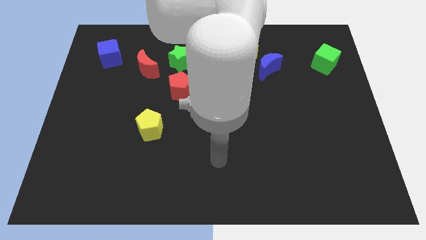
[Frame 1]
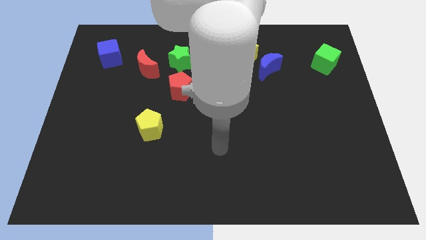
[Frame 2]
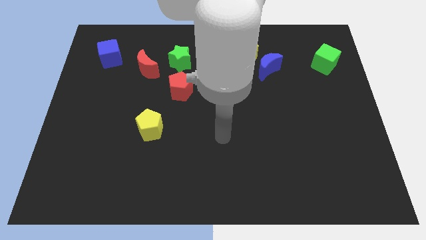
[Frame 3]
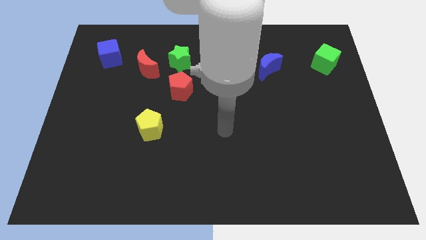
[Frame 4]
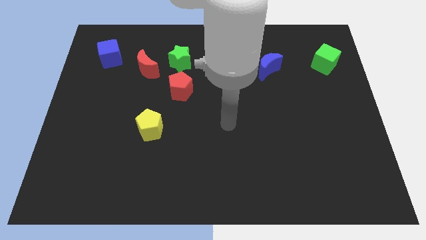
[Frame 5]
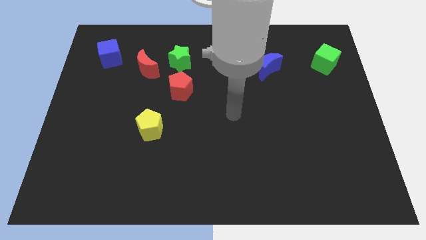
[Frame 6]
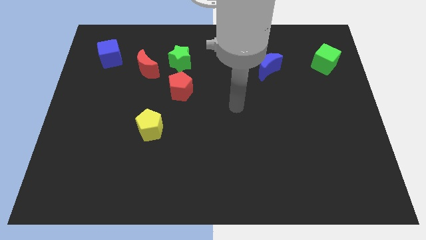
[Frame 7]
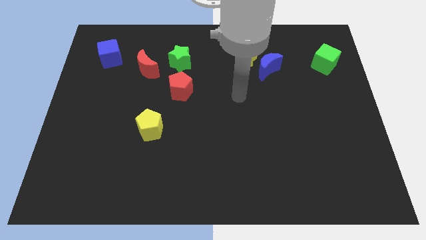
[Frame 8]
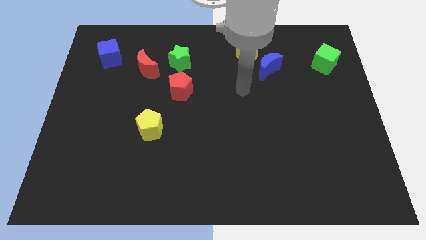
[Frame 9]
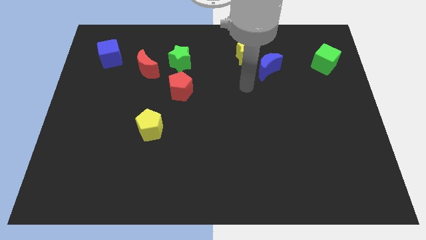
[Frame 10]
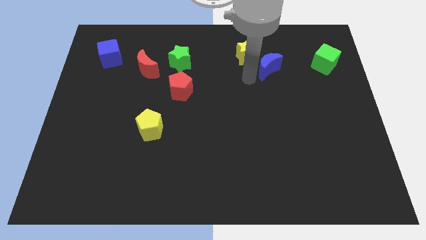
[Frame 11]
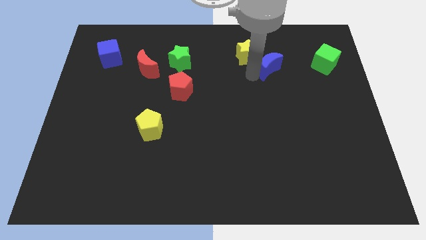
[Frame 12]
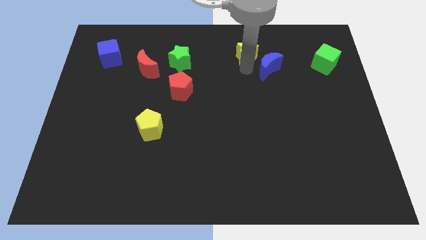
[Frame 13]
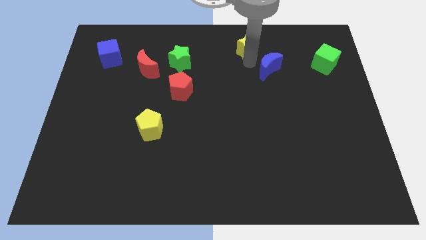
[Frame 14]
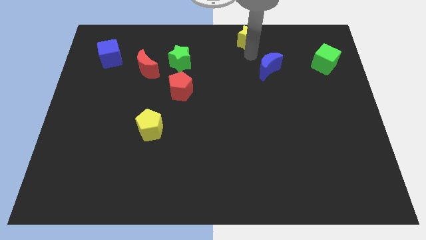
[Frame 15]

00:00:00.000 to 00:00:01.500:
move the blue moon away from the yellow star

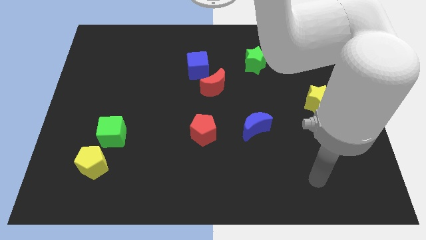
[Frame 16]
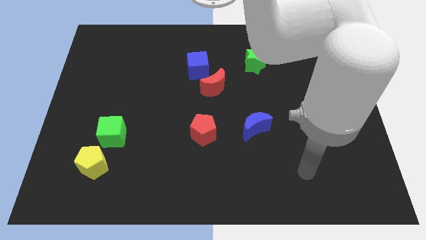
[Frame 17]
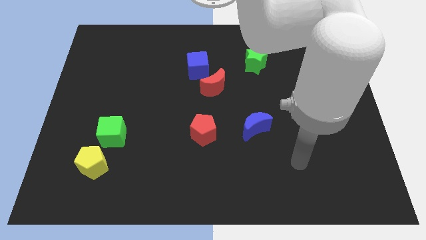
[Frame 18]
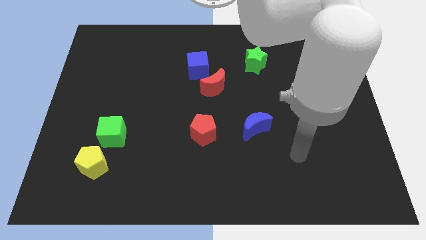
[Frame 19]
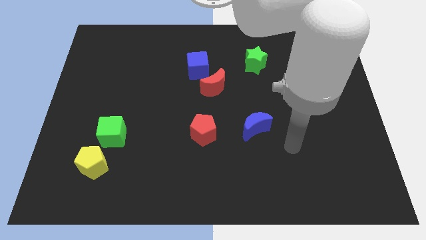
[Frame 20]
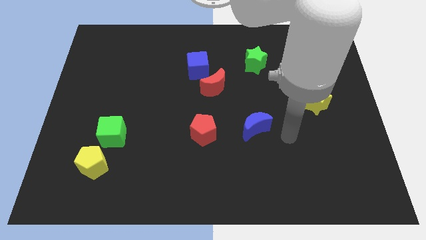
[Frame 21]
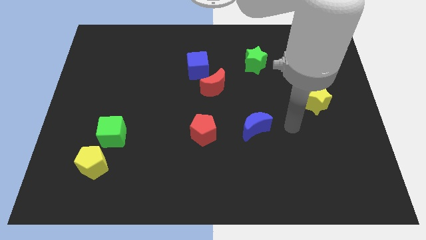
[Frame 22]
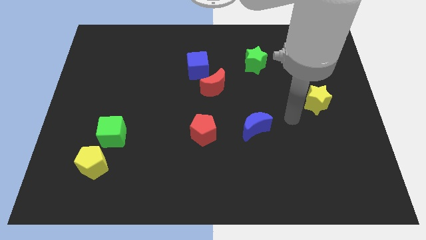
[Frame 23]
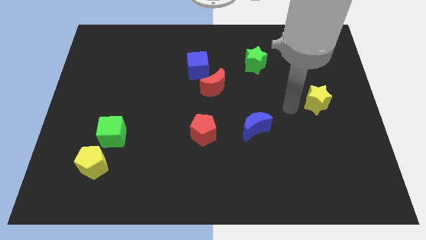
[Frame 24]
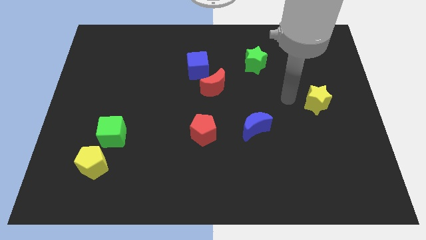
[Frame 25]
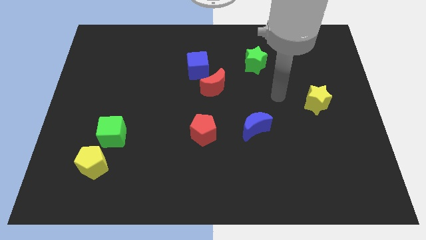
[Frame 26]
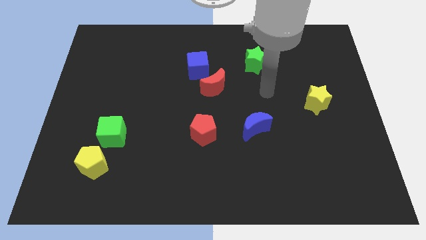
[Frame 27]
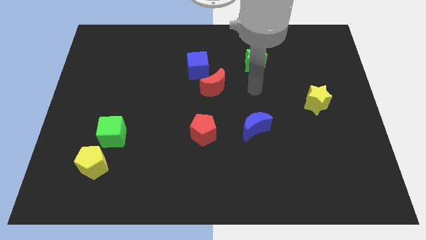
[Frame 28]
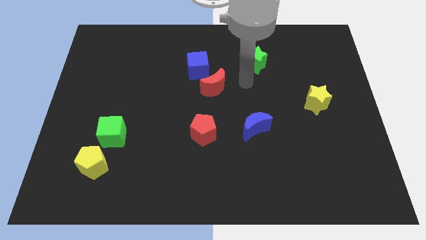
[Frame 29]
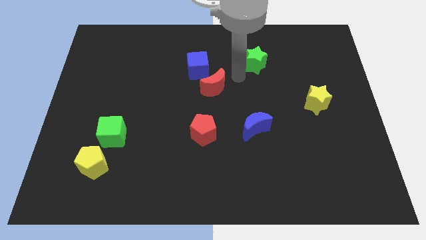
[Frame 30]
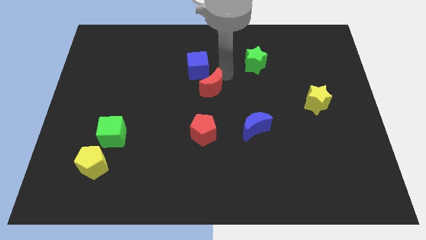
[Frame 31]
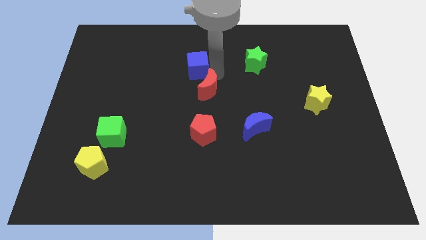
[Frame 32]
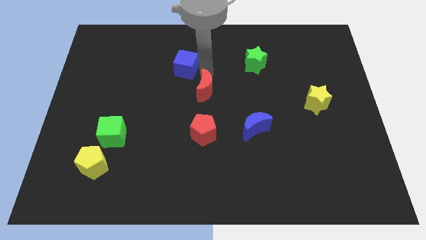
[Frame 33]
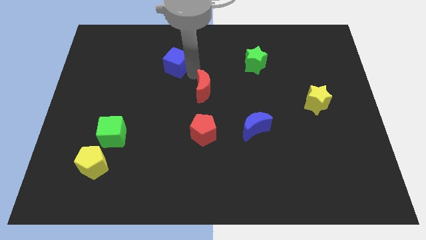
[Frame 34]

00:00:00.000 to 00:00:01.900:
pull the red moon apart from the blue cube

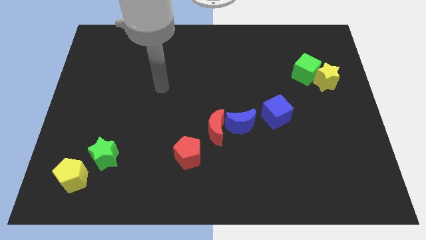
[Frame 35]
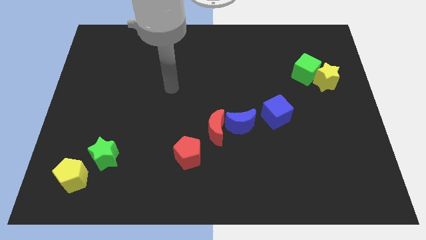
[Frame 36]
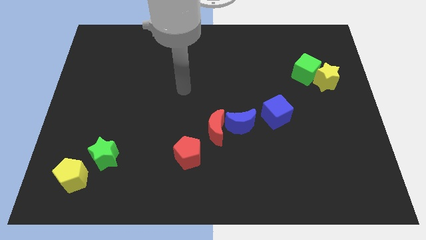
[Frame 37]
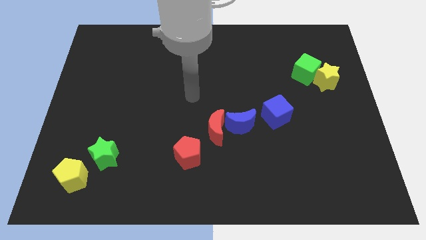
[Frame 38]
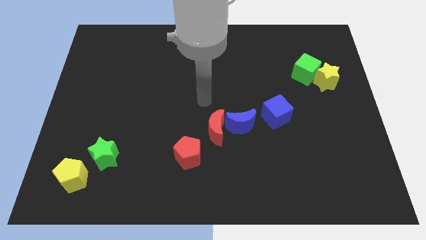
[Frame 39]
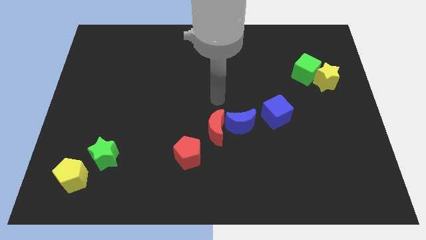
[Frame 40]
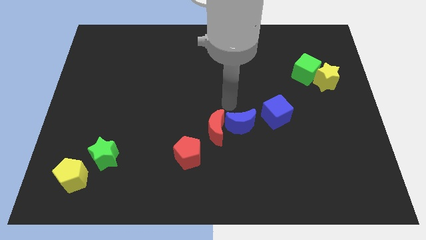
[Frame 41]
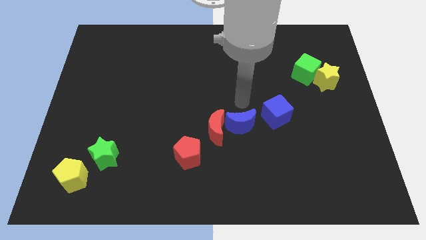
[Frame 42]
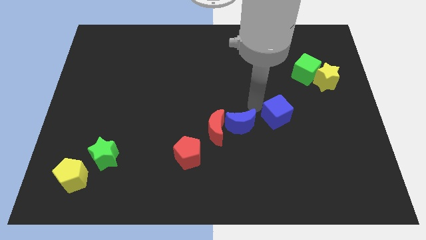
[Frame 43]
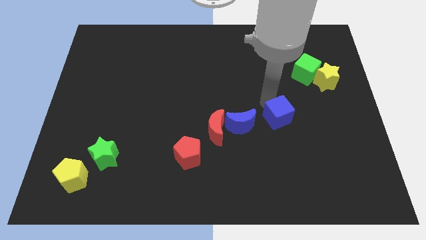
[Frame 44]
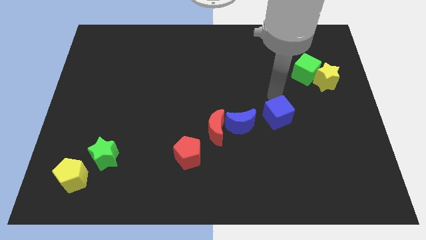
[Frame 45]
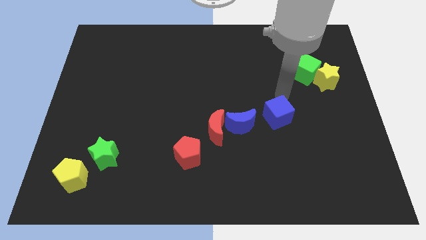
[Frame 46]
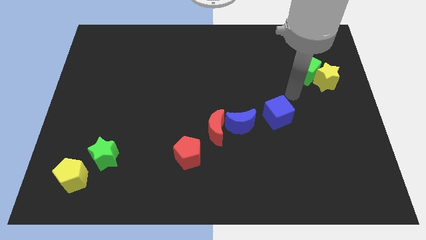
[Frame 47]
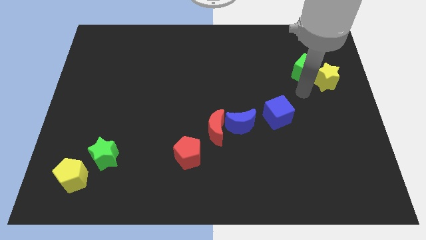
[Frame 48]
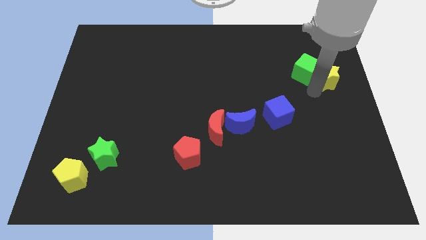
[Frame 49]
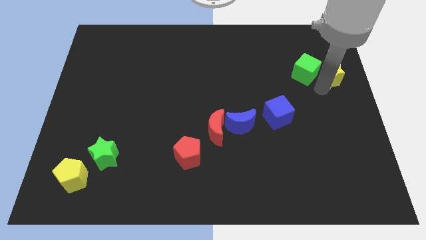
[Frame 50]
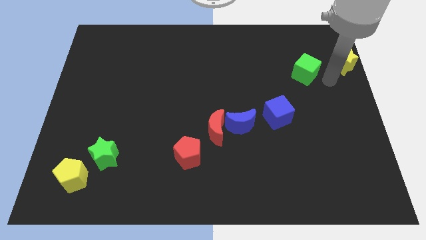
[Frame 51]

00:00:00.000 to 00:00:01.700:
pull the green cube apart from the yellow star

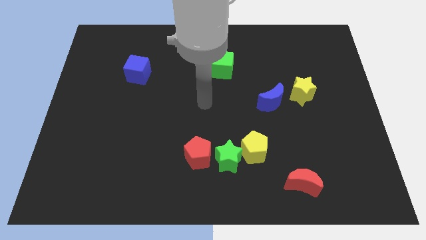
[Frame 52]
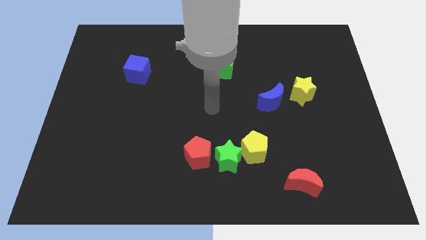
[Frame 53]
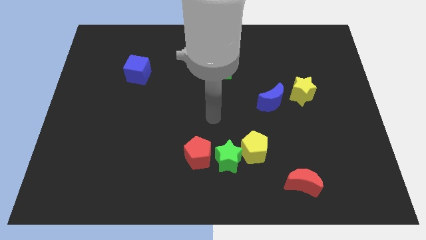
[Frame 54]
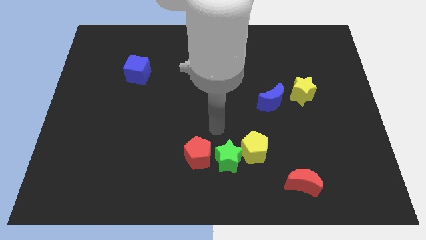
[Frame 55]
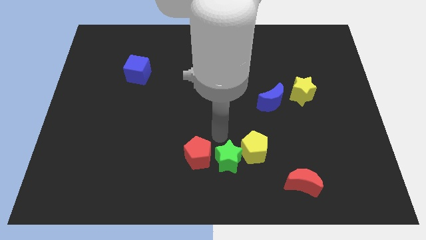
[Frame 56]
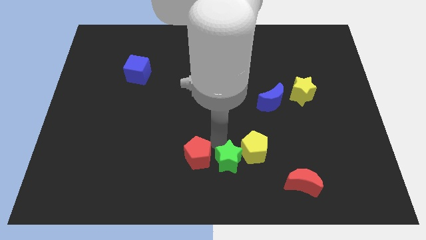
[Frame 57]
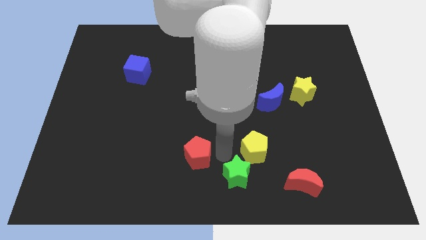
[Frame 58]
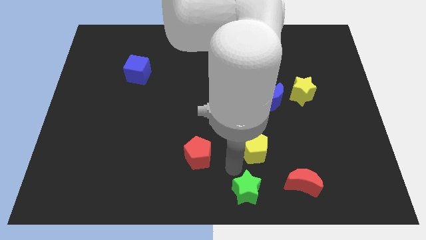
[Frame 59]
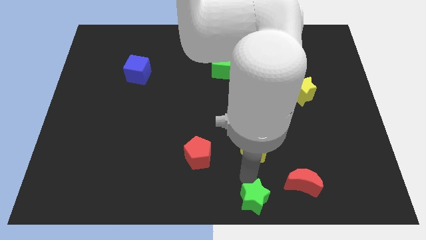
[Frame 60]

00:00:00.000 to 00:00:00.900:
pull the yellow pentagon apart from the green star

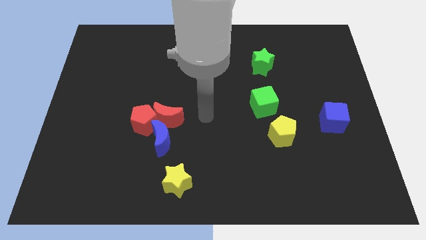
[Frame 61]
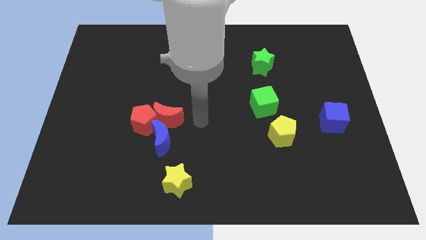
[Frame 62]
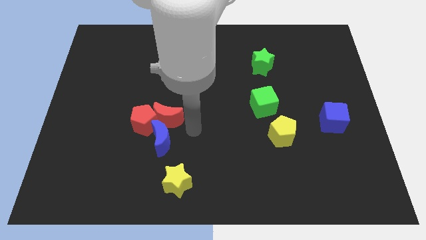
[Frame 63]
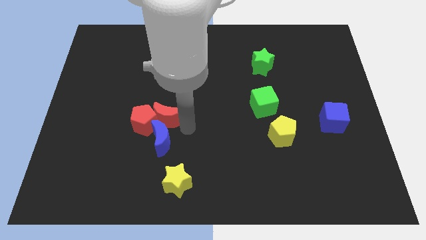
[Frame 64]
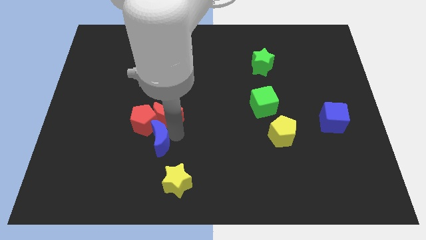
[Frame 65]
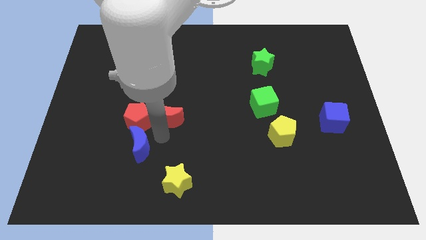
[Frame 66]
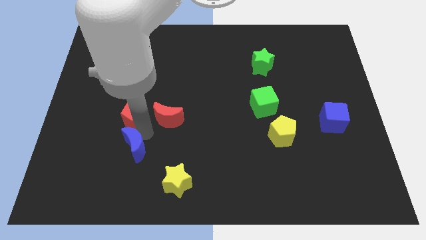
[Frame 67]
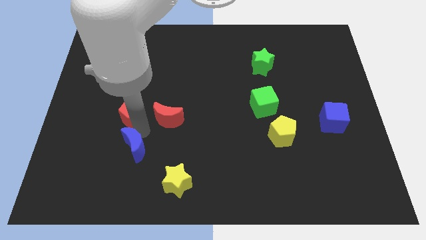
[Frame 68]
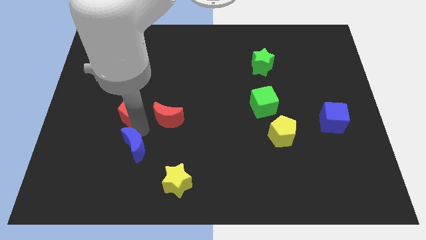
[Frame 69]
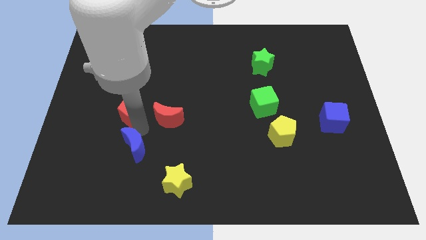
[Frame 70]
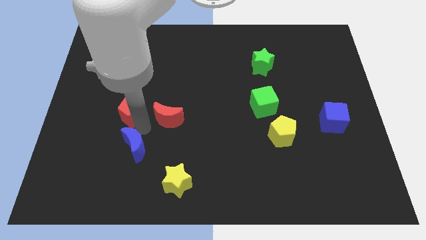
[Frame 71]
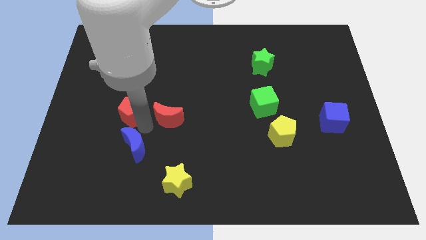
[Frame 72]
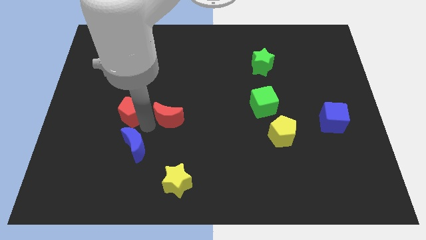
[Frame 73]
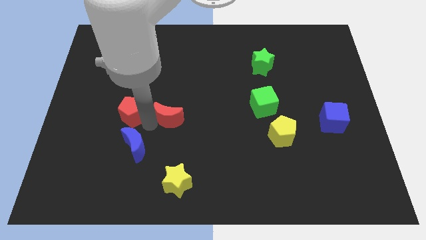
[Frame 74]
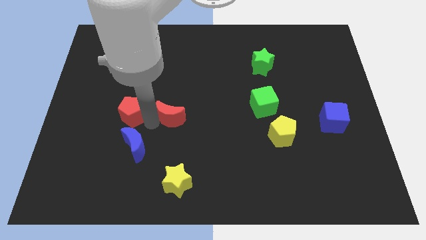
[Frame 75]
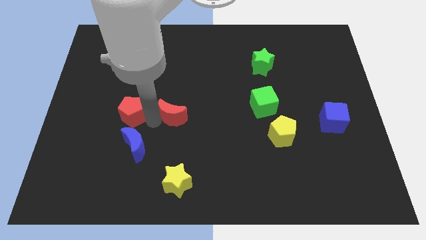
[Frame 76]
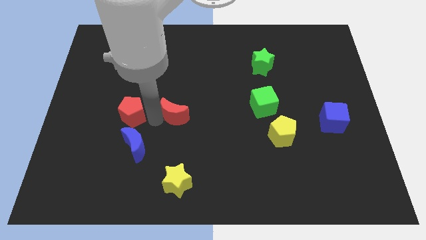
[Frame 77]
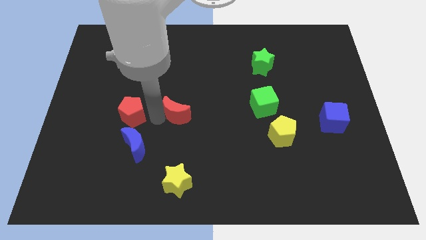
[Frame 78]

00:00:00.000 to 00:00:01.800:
pull the red moon apart from the red pentagon and blue moon

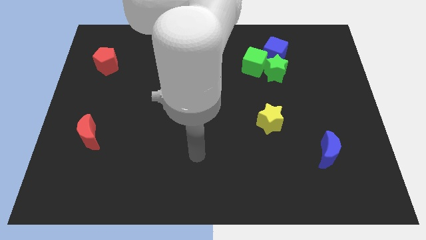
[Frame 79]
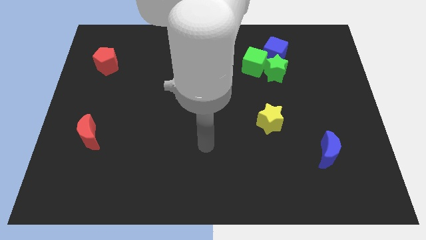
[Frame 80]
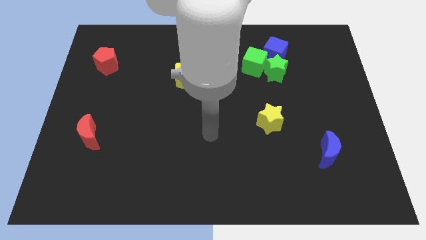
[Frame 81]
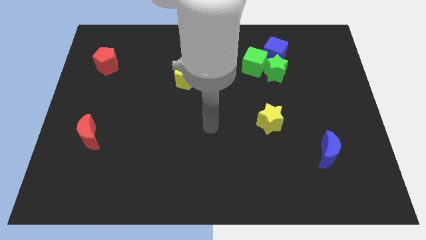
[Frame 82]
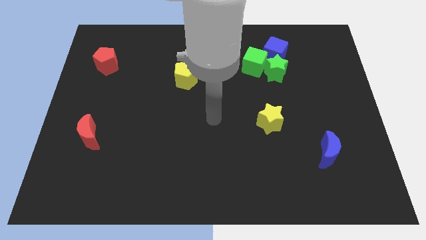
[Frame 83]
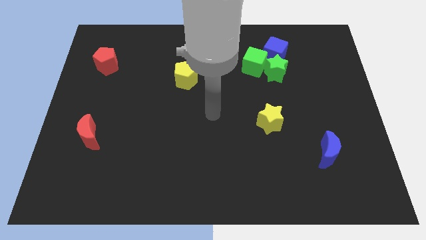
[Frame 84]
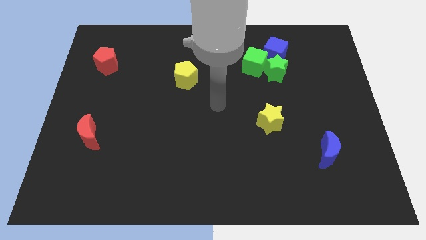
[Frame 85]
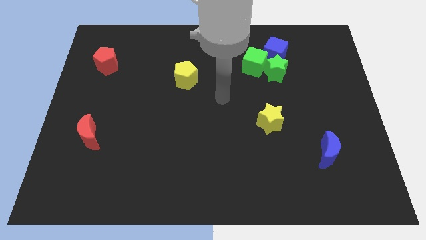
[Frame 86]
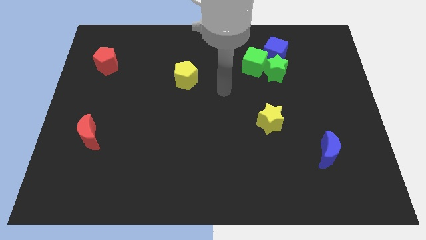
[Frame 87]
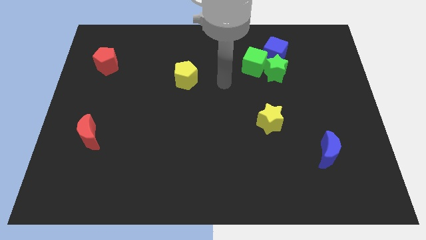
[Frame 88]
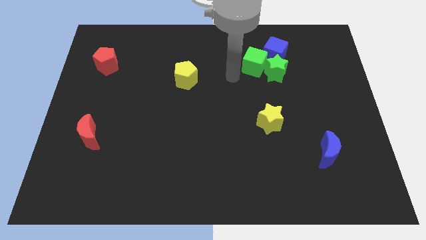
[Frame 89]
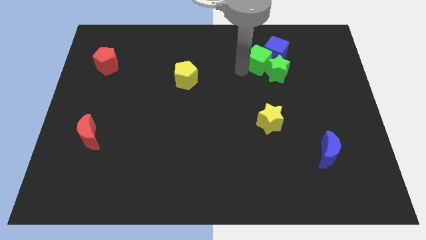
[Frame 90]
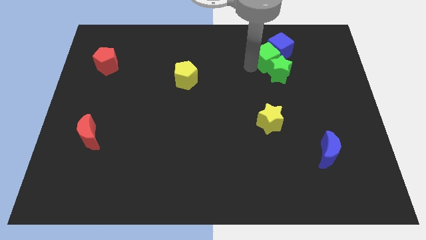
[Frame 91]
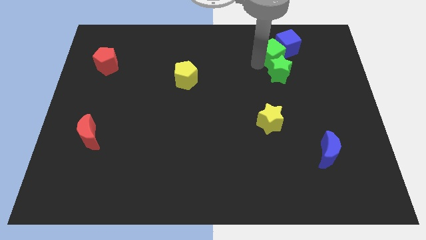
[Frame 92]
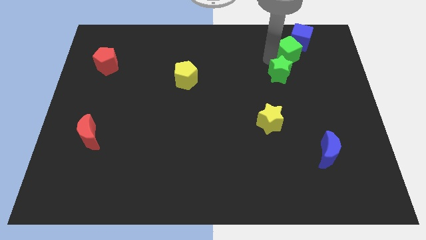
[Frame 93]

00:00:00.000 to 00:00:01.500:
move the green star away from the green cube and blue cube
